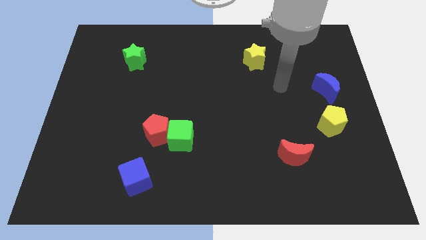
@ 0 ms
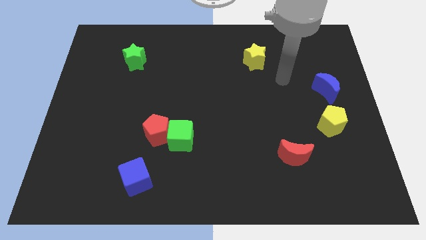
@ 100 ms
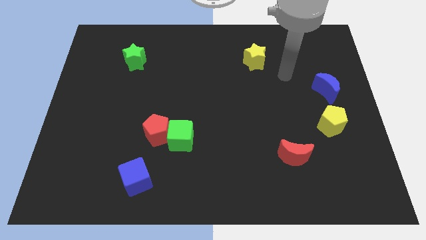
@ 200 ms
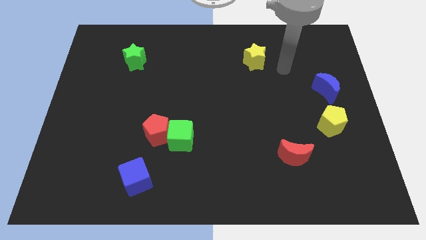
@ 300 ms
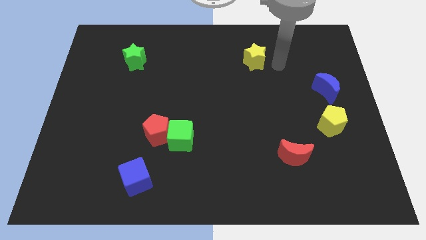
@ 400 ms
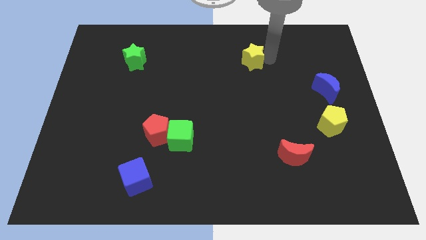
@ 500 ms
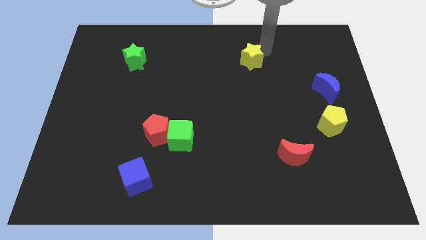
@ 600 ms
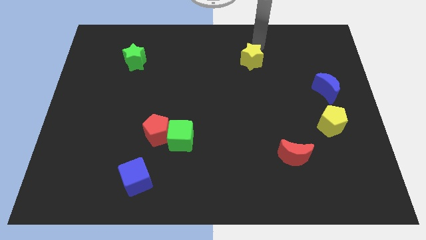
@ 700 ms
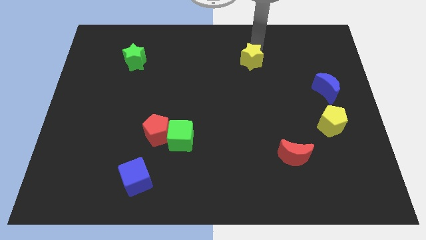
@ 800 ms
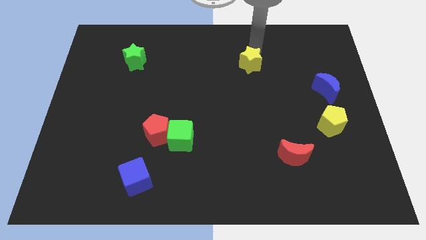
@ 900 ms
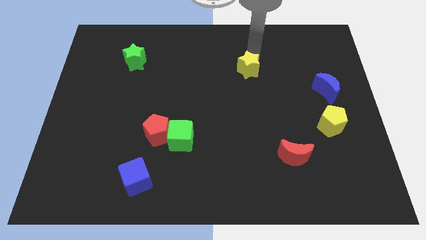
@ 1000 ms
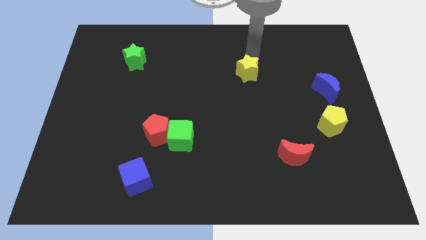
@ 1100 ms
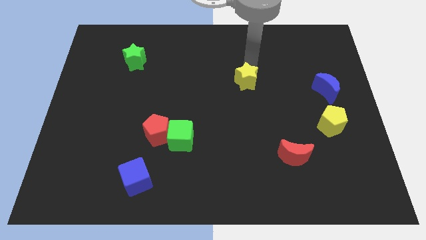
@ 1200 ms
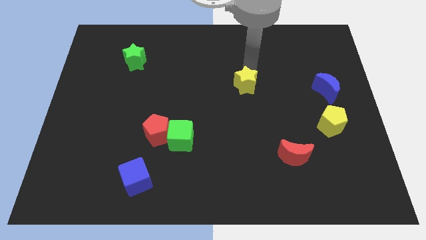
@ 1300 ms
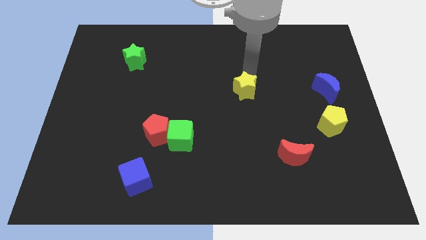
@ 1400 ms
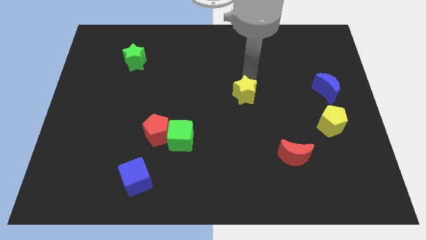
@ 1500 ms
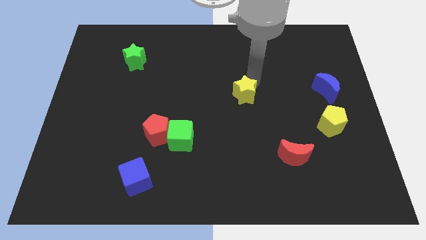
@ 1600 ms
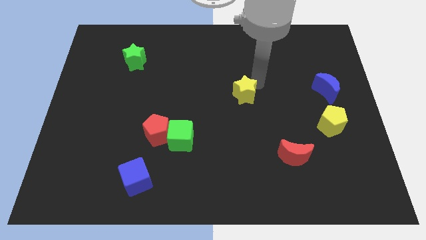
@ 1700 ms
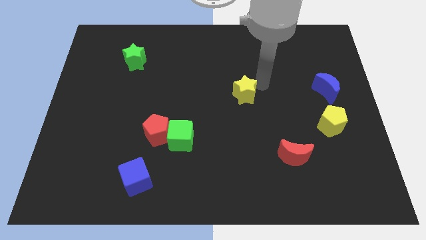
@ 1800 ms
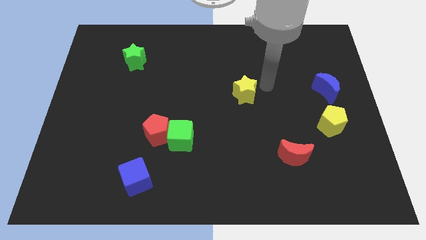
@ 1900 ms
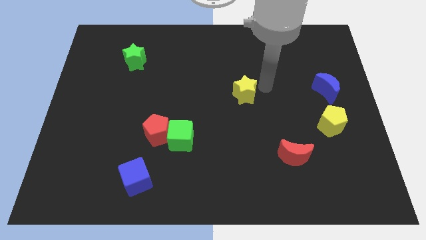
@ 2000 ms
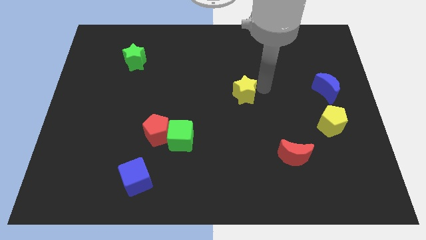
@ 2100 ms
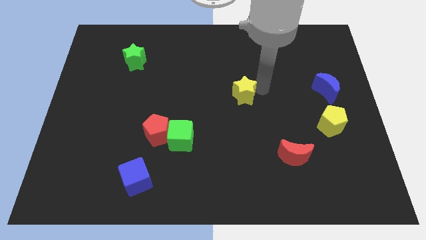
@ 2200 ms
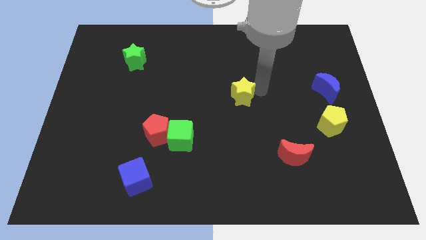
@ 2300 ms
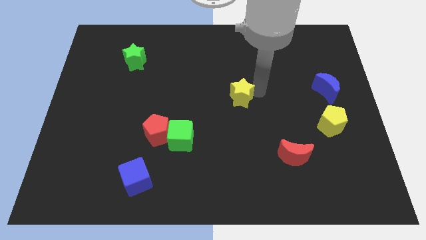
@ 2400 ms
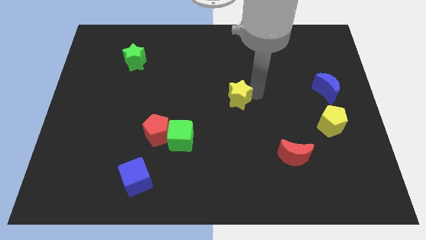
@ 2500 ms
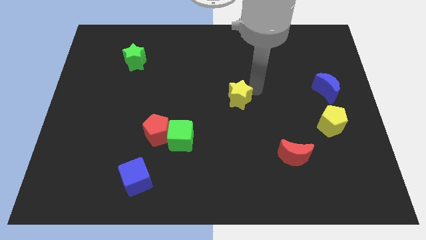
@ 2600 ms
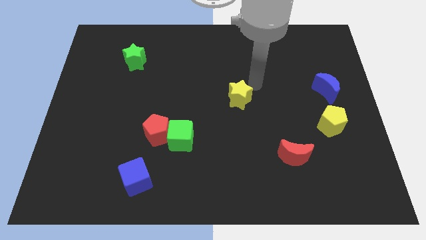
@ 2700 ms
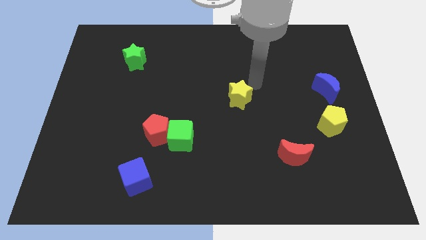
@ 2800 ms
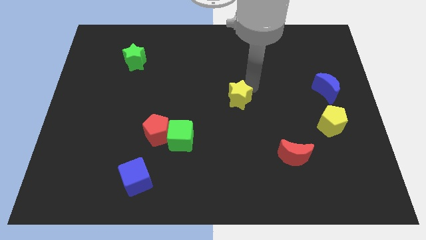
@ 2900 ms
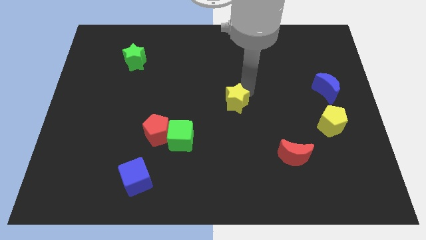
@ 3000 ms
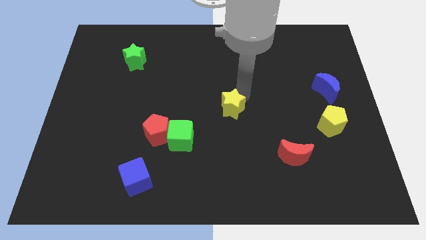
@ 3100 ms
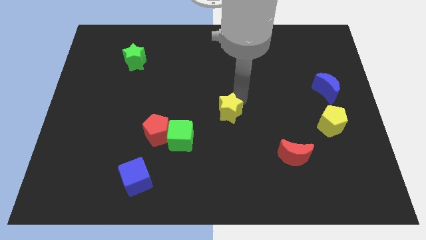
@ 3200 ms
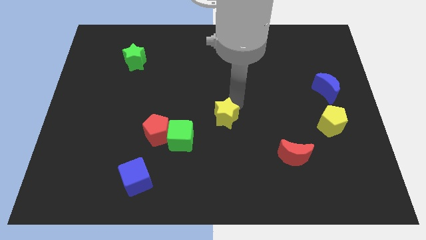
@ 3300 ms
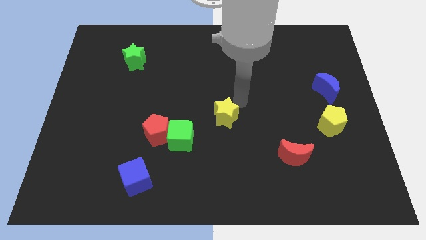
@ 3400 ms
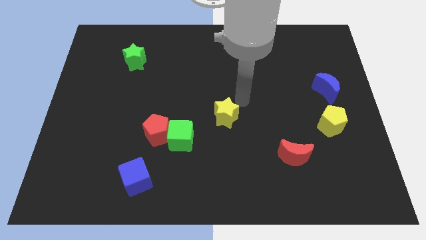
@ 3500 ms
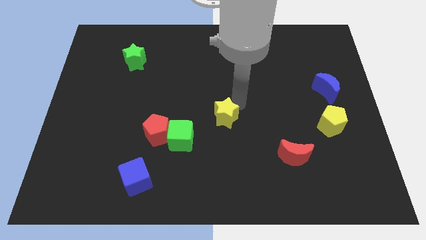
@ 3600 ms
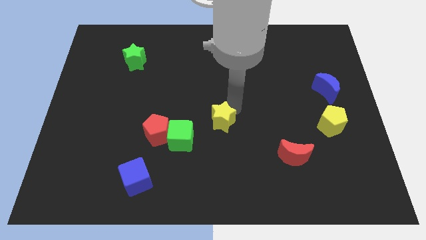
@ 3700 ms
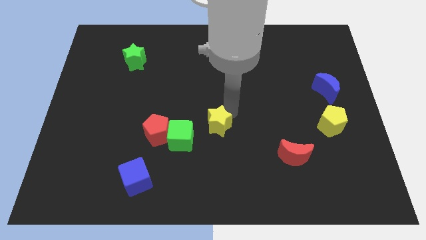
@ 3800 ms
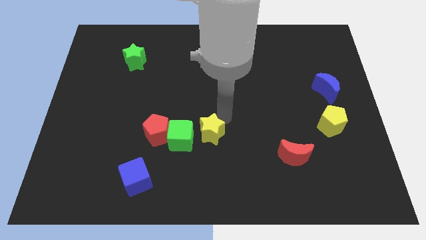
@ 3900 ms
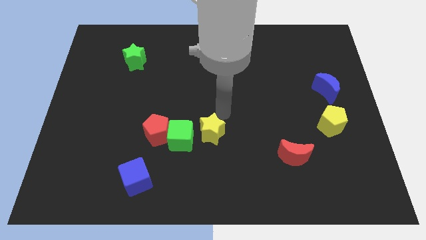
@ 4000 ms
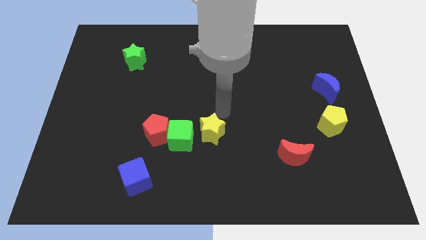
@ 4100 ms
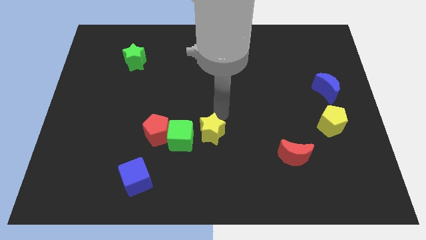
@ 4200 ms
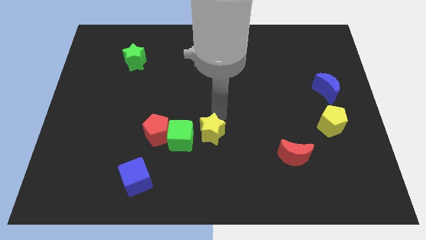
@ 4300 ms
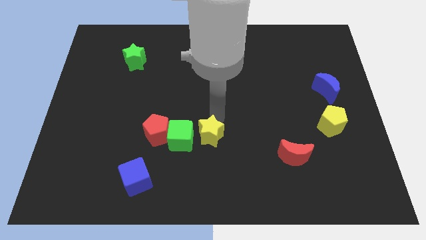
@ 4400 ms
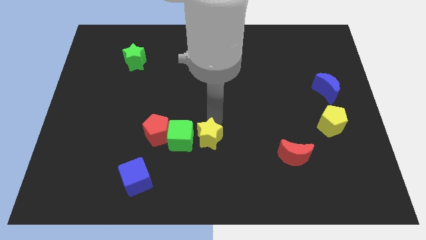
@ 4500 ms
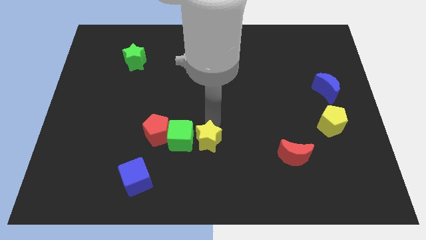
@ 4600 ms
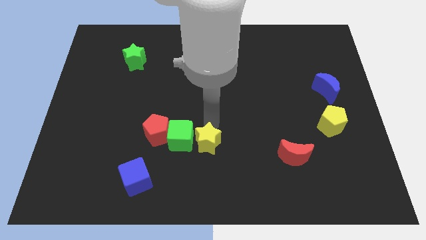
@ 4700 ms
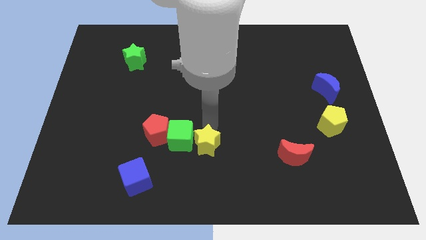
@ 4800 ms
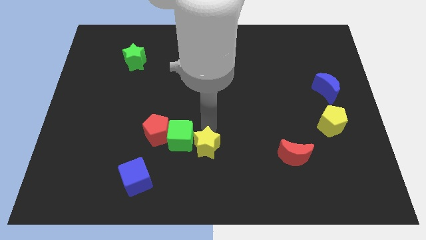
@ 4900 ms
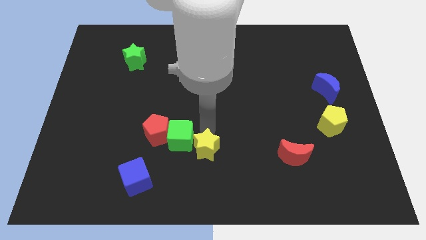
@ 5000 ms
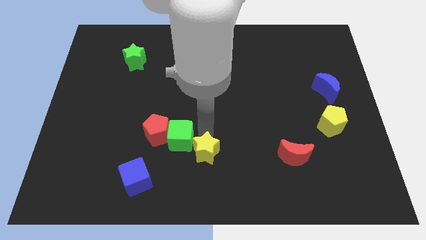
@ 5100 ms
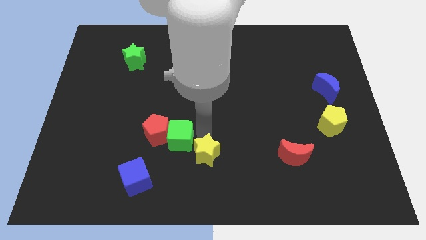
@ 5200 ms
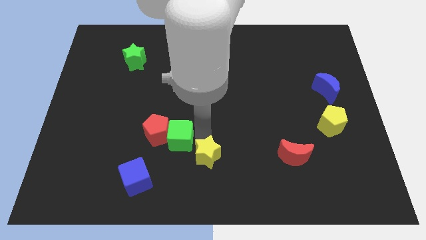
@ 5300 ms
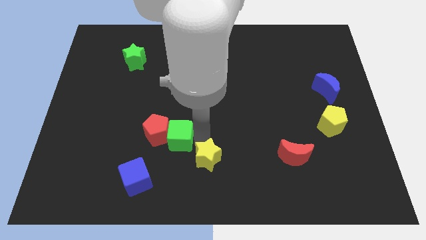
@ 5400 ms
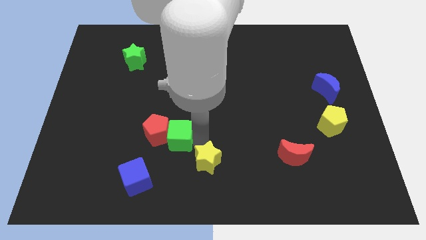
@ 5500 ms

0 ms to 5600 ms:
put the yellow star right of the blue cube

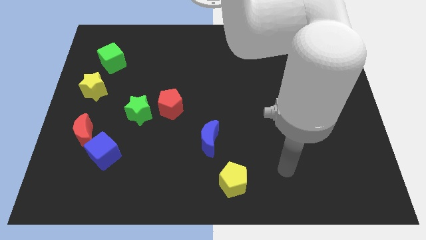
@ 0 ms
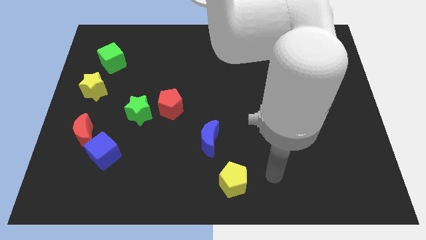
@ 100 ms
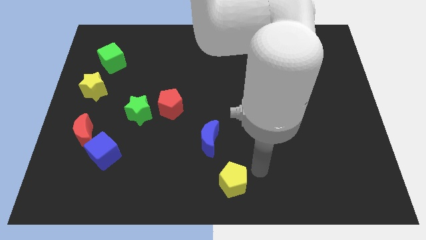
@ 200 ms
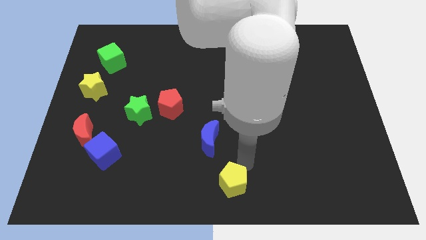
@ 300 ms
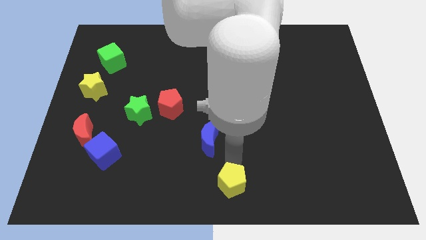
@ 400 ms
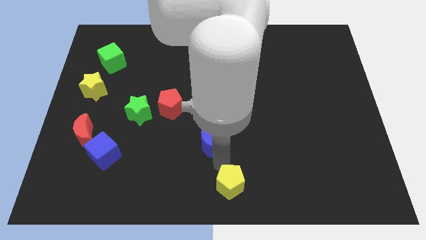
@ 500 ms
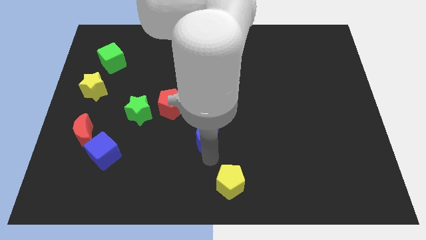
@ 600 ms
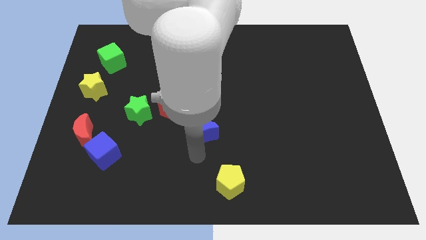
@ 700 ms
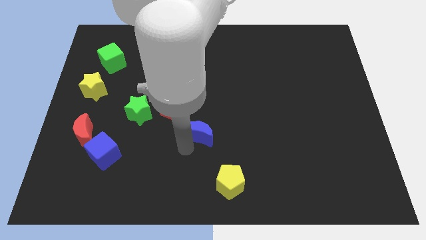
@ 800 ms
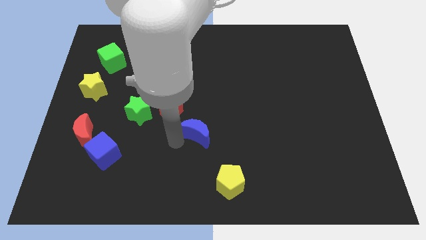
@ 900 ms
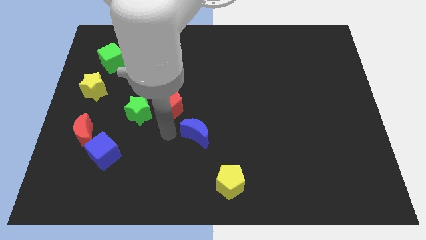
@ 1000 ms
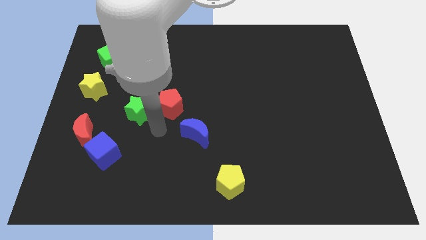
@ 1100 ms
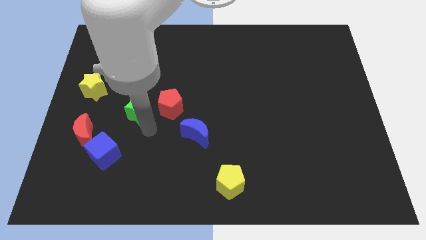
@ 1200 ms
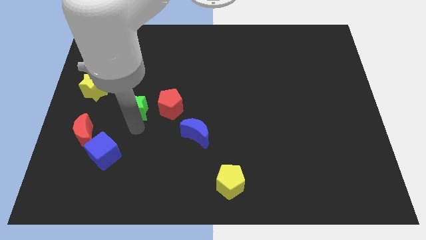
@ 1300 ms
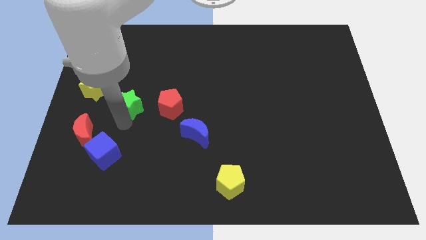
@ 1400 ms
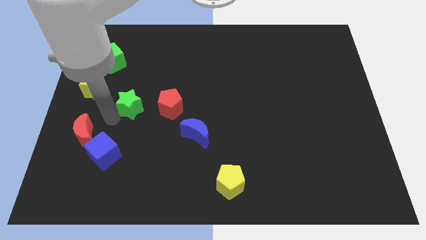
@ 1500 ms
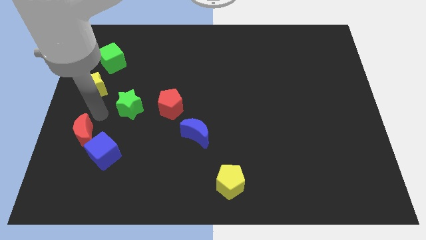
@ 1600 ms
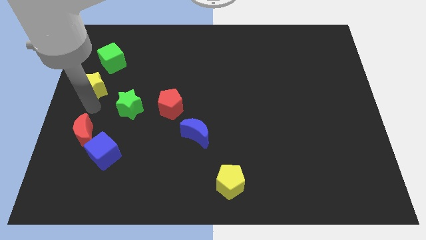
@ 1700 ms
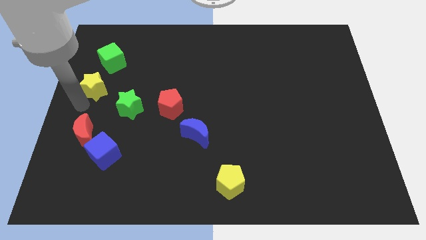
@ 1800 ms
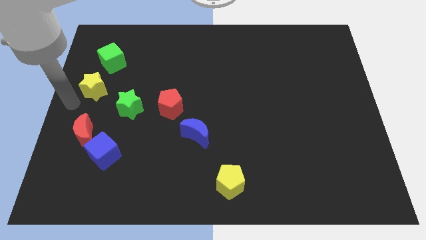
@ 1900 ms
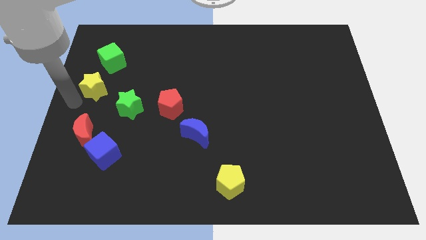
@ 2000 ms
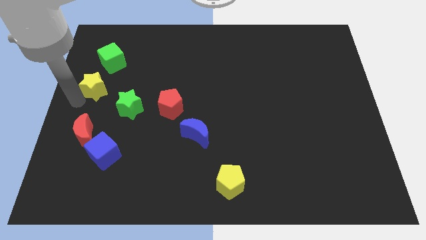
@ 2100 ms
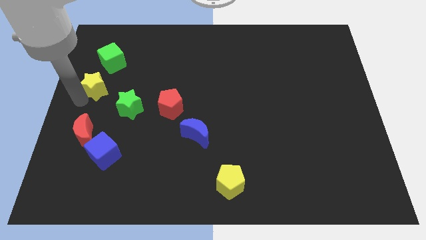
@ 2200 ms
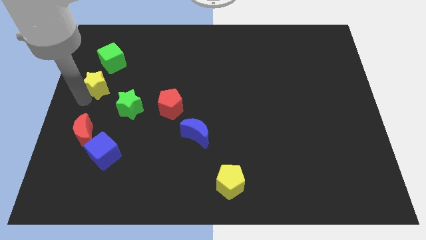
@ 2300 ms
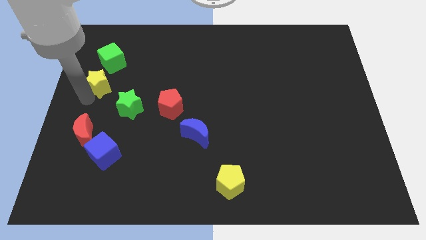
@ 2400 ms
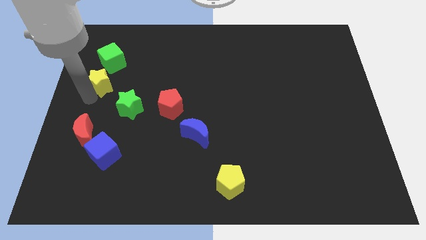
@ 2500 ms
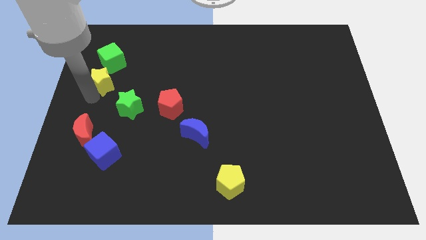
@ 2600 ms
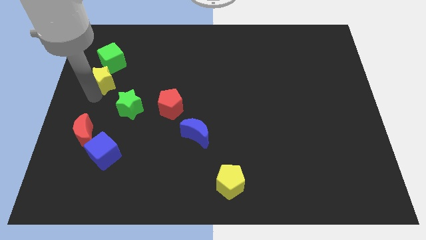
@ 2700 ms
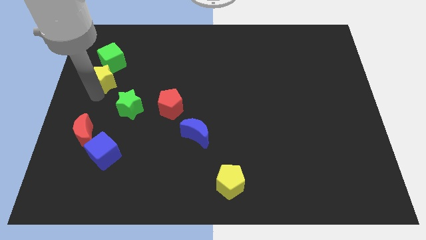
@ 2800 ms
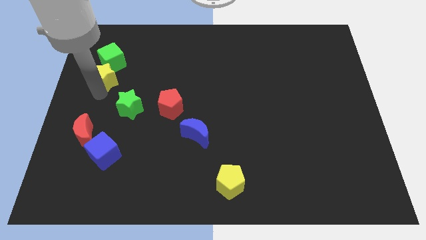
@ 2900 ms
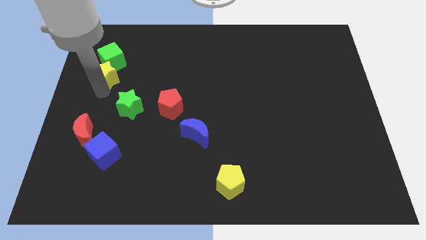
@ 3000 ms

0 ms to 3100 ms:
slide the yellow star to the bottom right of the green cube
